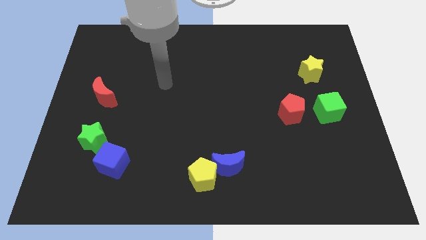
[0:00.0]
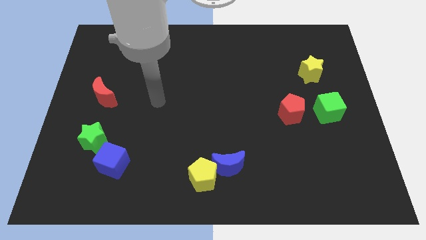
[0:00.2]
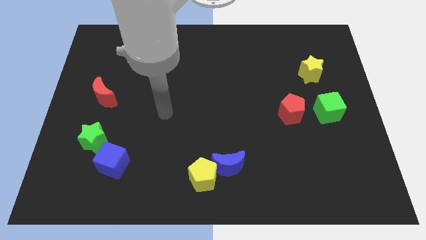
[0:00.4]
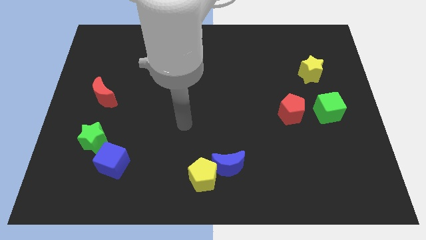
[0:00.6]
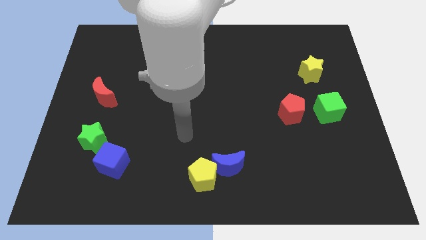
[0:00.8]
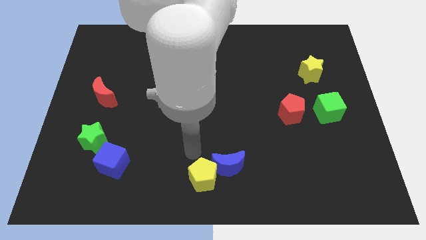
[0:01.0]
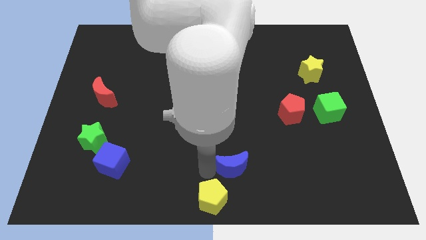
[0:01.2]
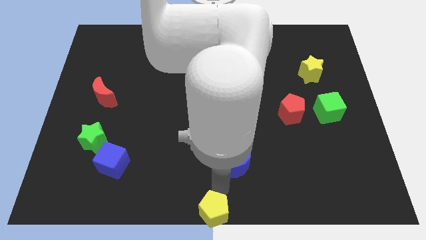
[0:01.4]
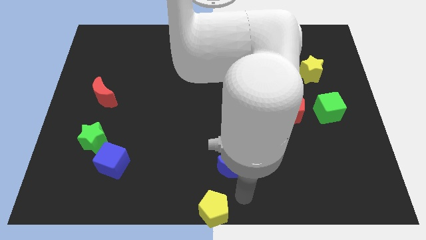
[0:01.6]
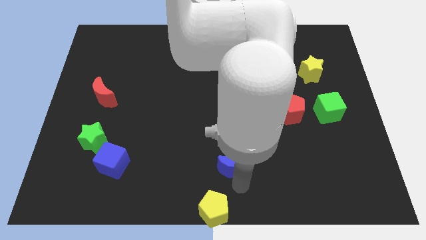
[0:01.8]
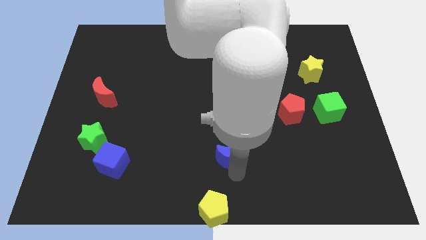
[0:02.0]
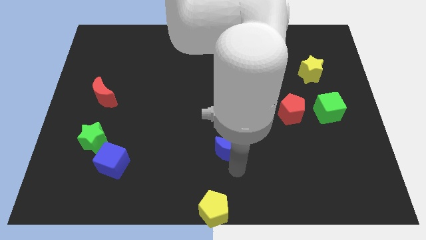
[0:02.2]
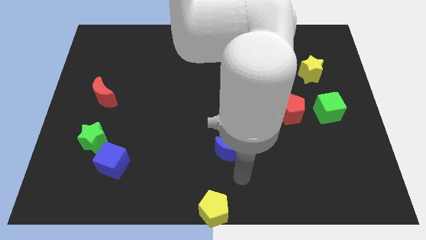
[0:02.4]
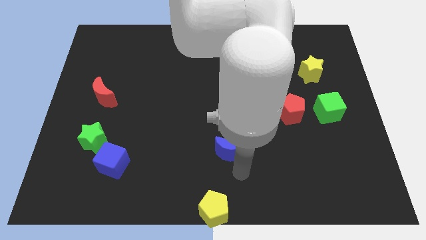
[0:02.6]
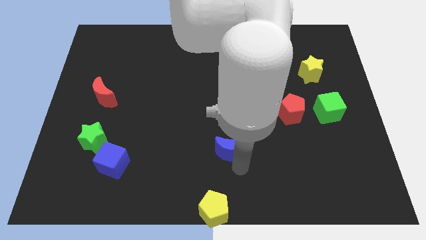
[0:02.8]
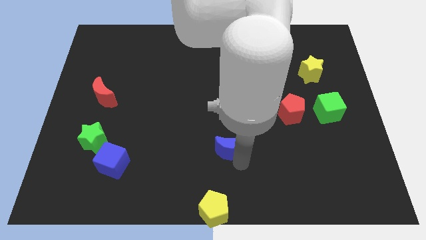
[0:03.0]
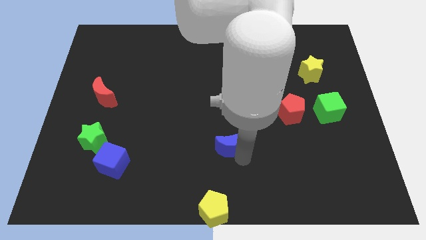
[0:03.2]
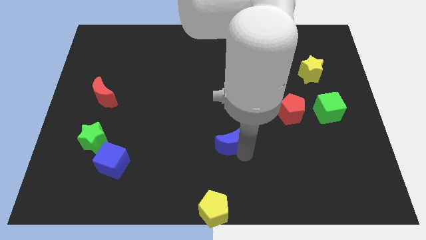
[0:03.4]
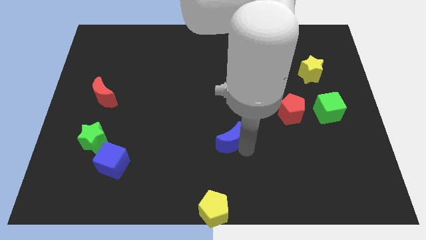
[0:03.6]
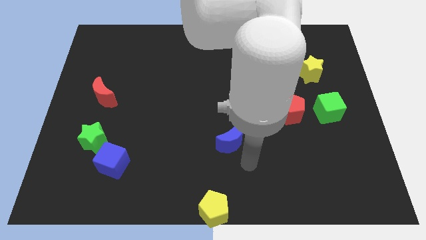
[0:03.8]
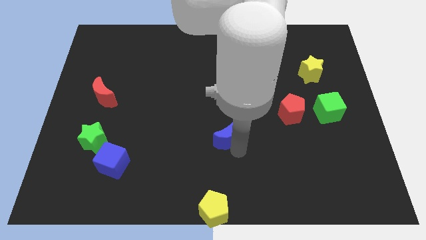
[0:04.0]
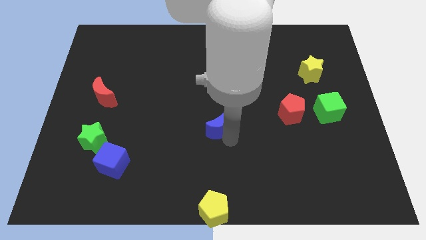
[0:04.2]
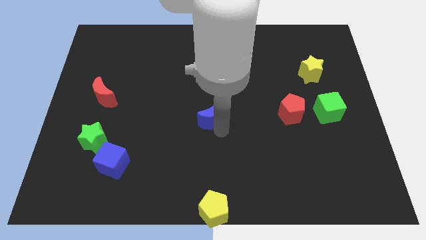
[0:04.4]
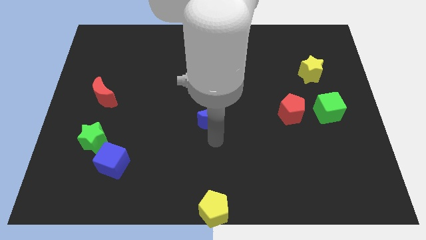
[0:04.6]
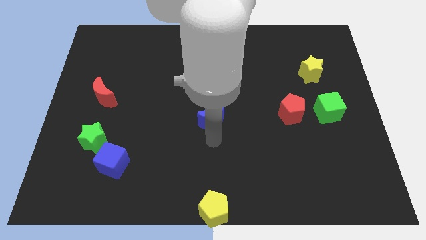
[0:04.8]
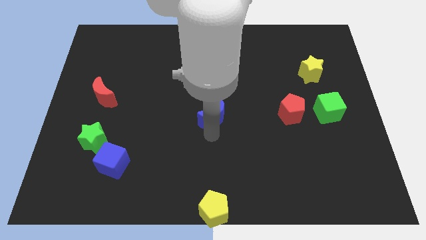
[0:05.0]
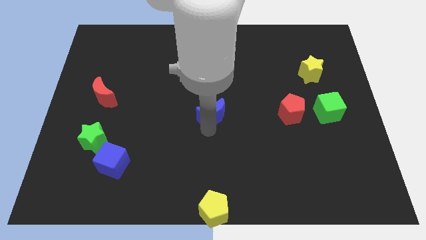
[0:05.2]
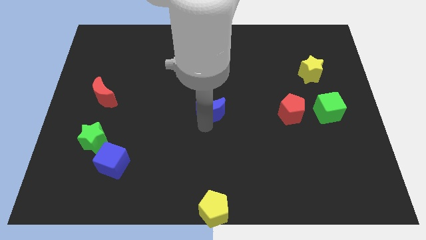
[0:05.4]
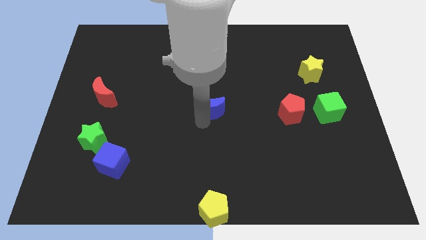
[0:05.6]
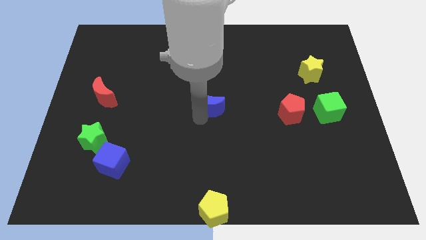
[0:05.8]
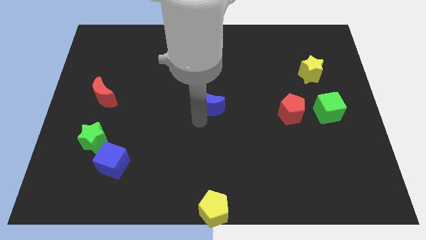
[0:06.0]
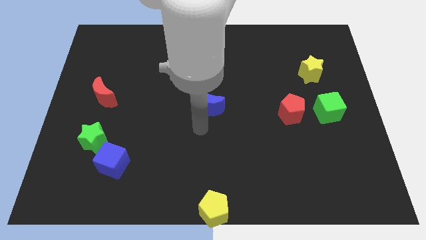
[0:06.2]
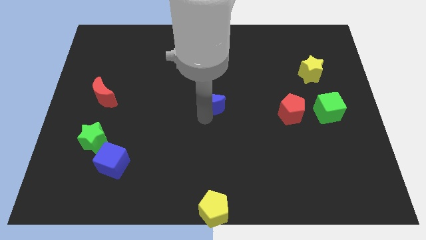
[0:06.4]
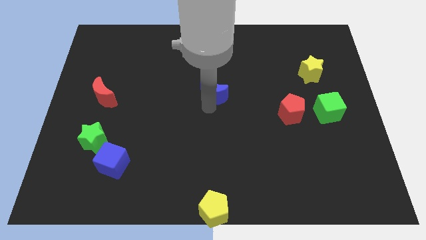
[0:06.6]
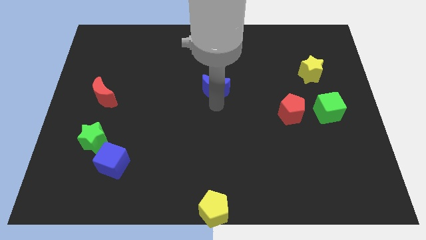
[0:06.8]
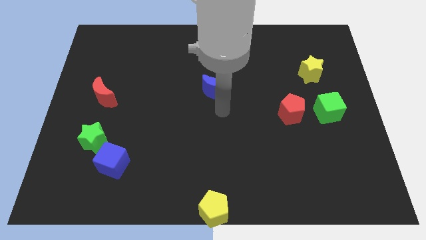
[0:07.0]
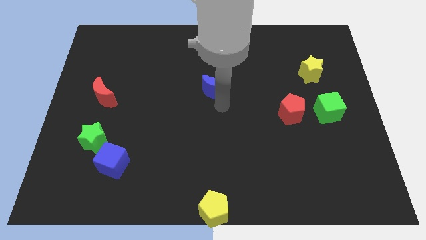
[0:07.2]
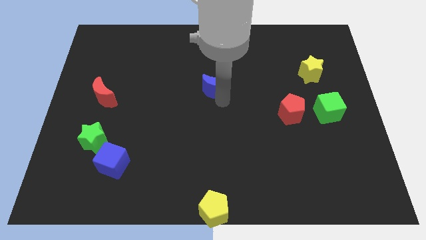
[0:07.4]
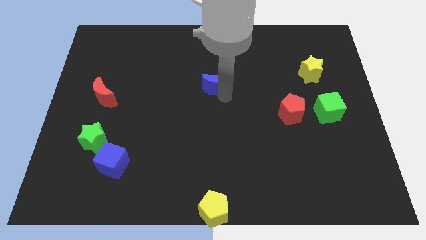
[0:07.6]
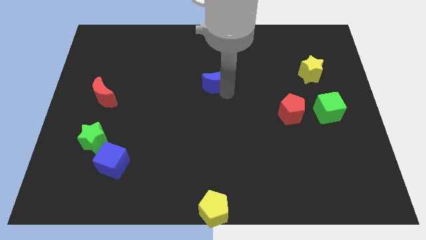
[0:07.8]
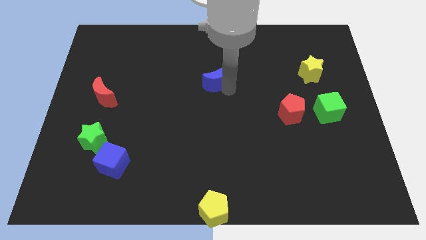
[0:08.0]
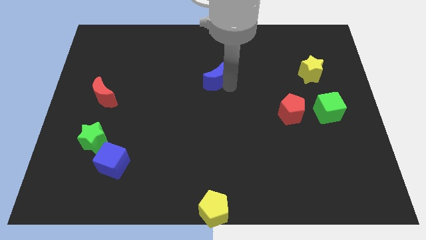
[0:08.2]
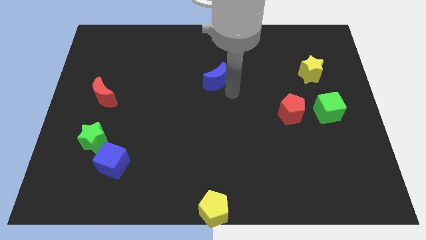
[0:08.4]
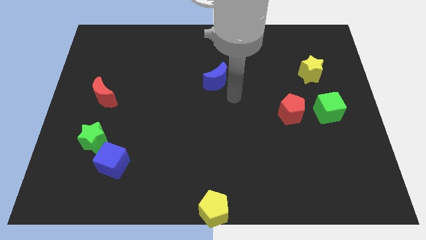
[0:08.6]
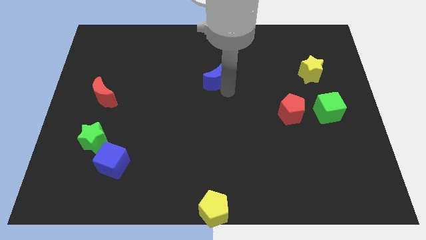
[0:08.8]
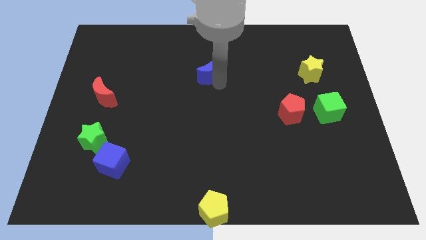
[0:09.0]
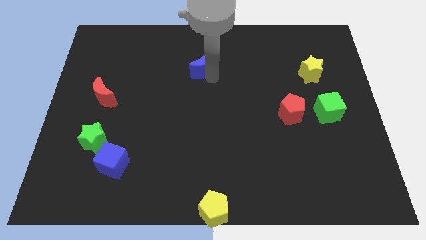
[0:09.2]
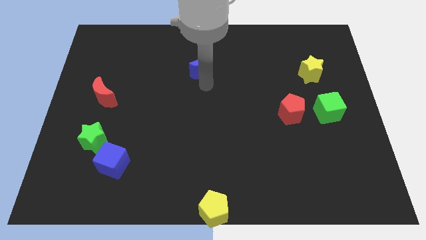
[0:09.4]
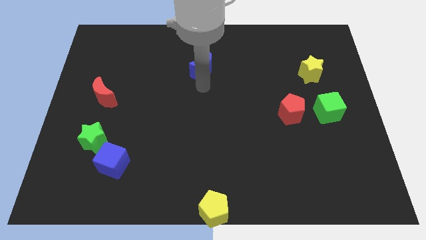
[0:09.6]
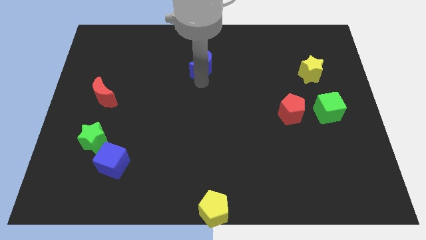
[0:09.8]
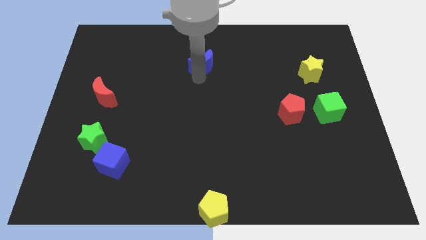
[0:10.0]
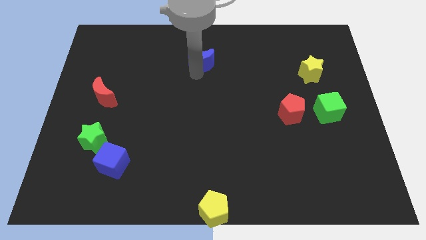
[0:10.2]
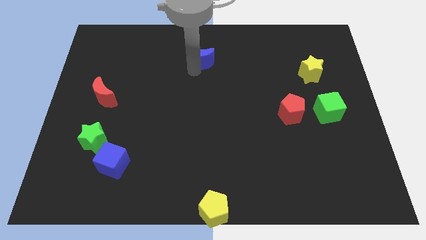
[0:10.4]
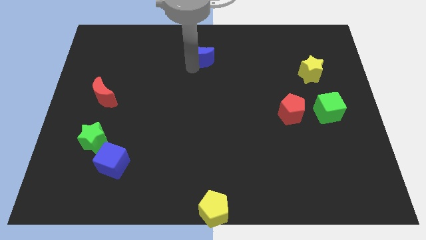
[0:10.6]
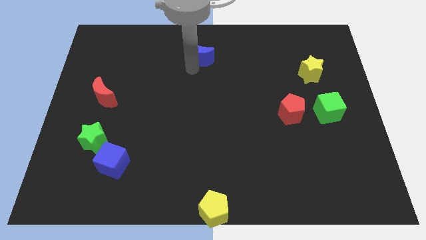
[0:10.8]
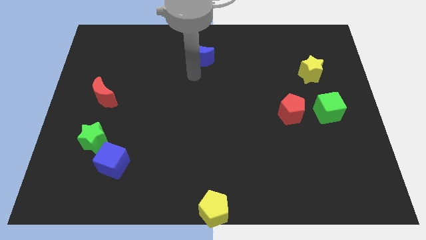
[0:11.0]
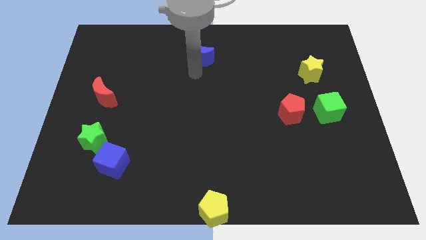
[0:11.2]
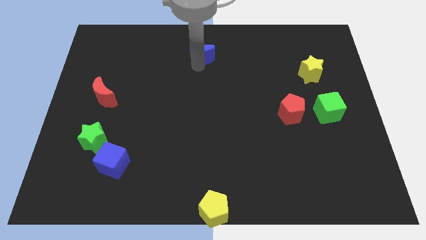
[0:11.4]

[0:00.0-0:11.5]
put the blue moon to the towards your base
